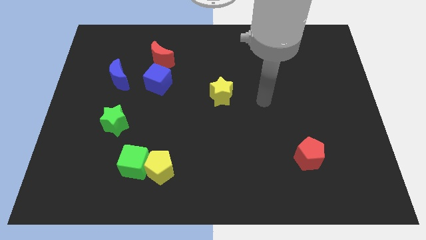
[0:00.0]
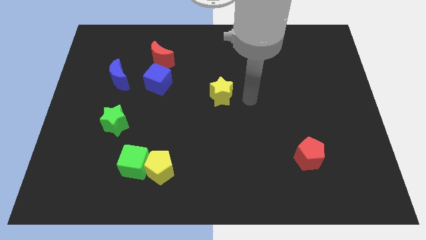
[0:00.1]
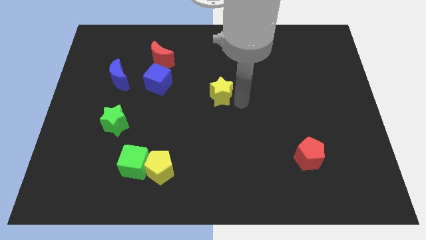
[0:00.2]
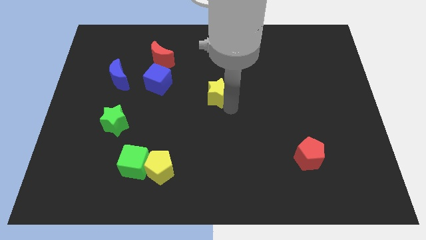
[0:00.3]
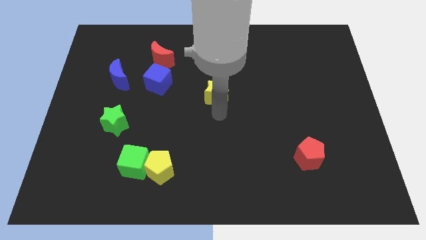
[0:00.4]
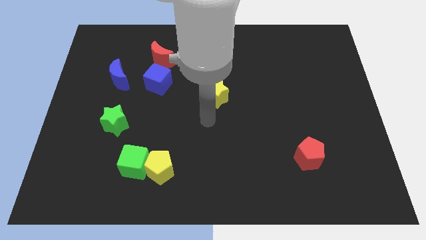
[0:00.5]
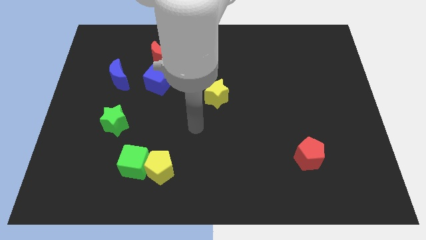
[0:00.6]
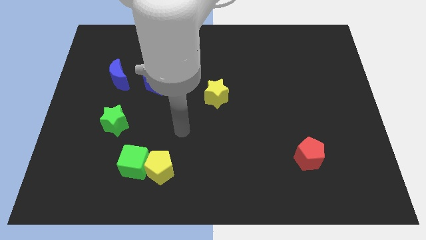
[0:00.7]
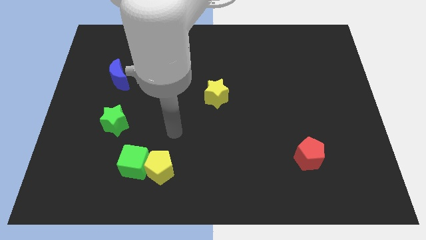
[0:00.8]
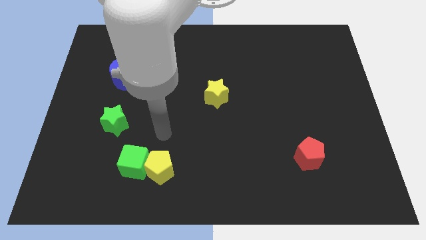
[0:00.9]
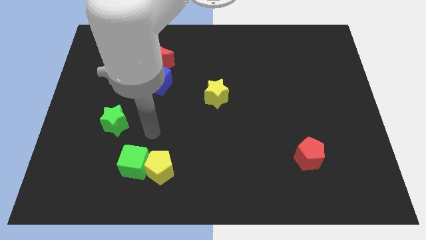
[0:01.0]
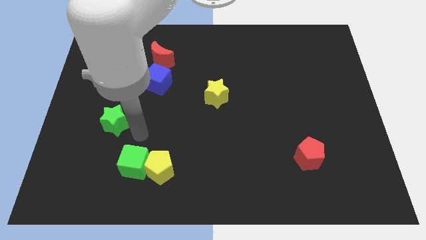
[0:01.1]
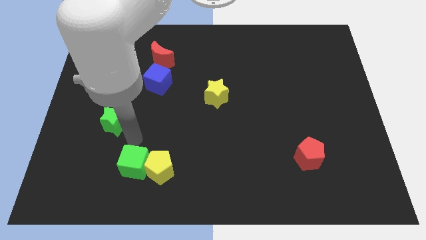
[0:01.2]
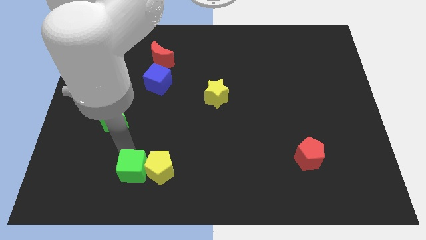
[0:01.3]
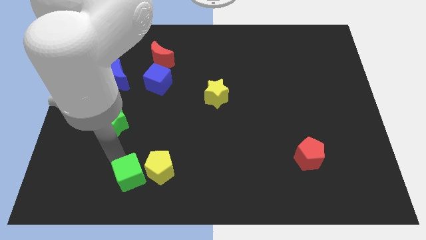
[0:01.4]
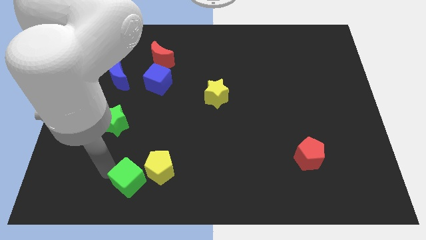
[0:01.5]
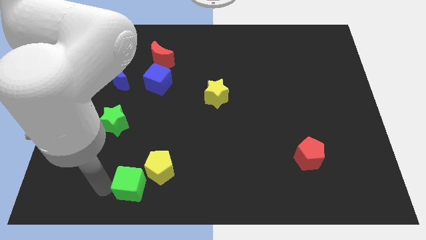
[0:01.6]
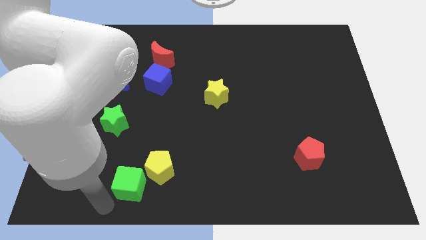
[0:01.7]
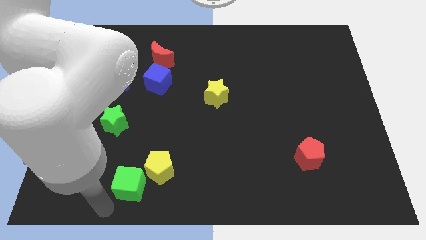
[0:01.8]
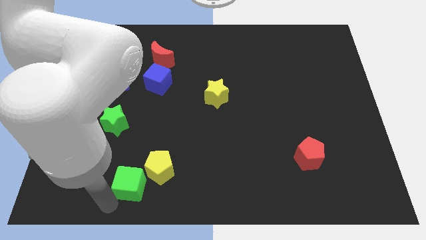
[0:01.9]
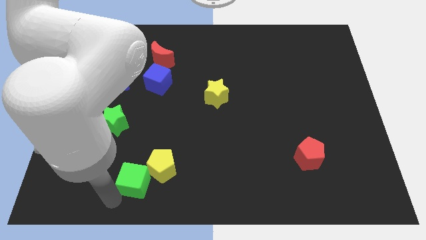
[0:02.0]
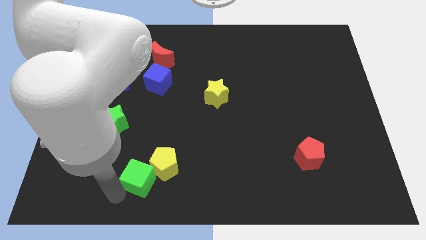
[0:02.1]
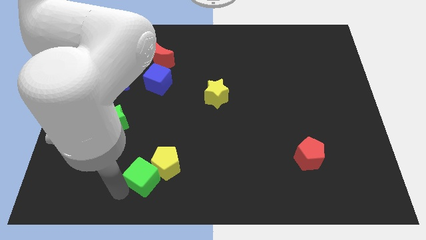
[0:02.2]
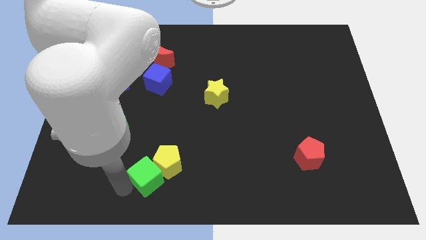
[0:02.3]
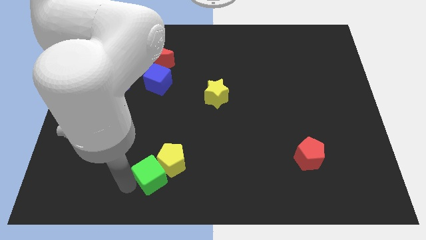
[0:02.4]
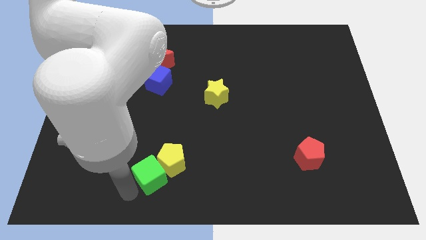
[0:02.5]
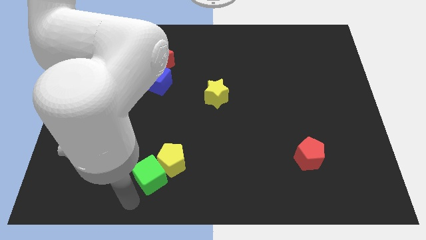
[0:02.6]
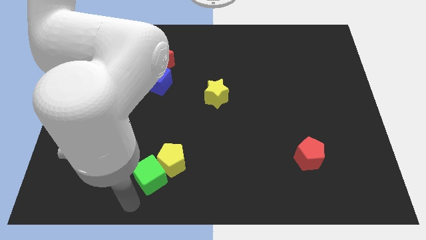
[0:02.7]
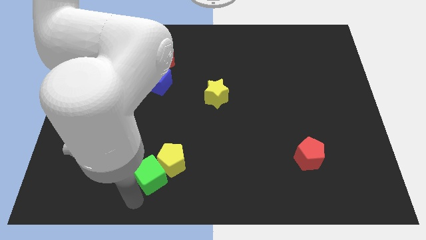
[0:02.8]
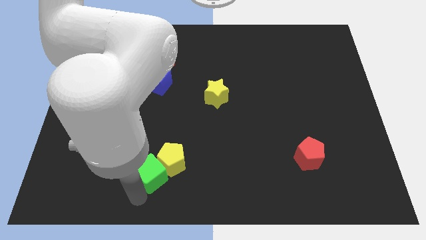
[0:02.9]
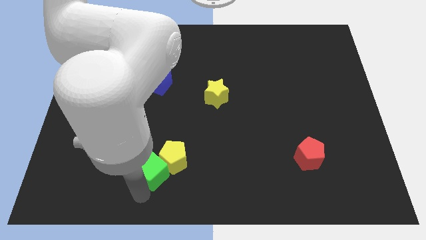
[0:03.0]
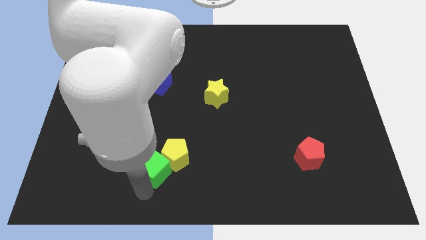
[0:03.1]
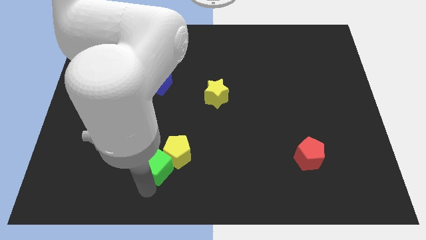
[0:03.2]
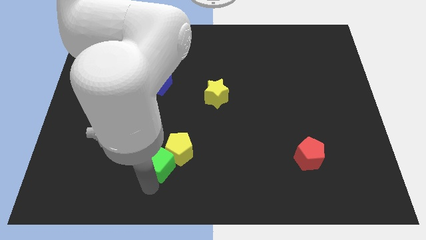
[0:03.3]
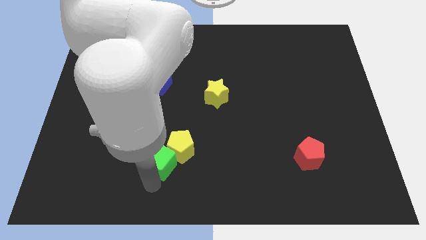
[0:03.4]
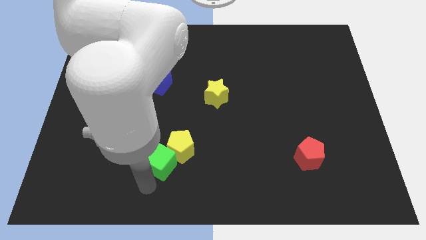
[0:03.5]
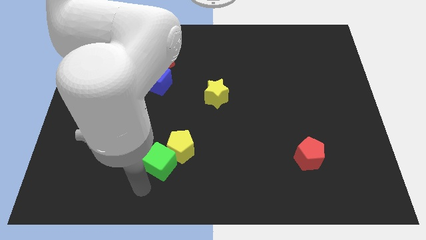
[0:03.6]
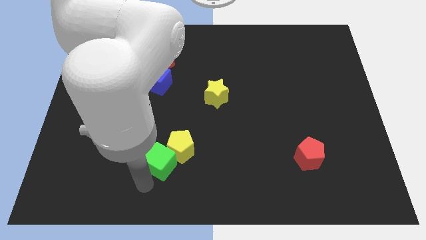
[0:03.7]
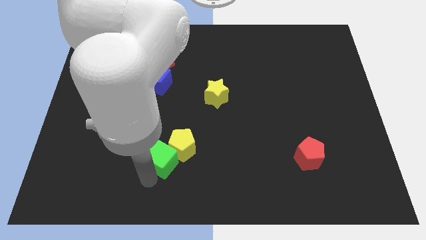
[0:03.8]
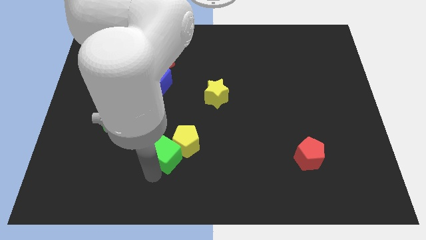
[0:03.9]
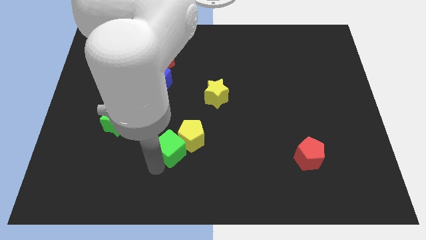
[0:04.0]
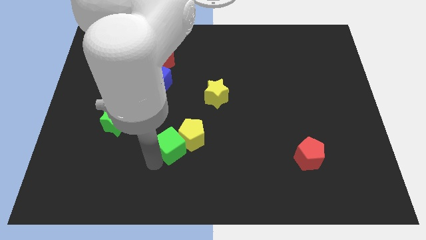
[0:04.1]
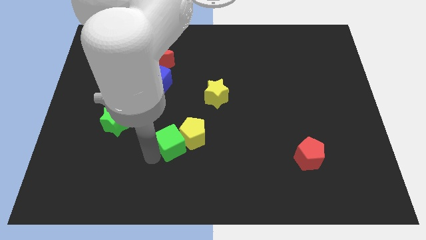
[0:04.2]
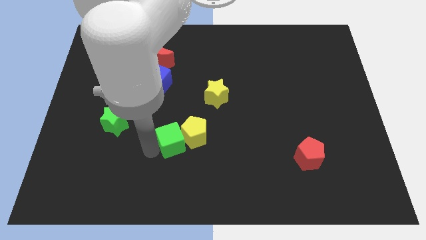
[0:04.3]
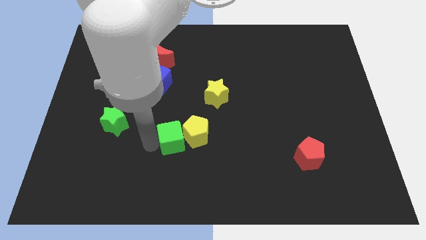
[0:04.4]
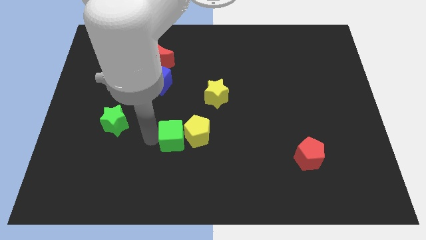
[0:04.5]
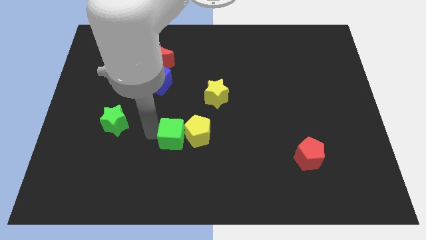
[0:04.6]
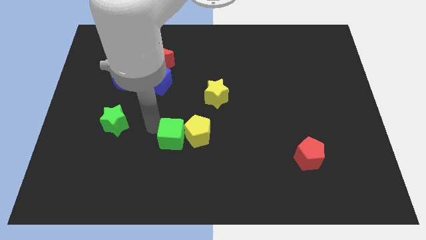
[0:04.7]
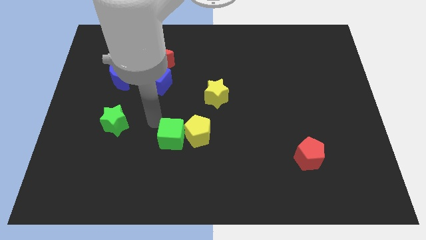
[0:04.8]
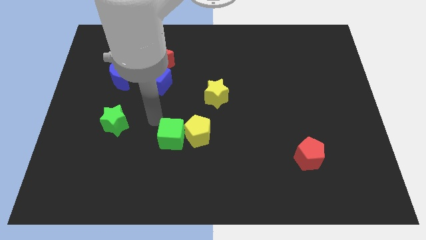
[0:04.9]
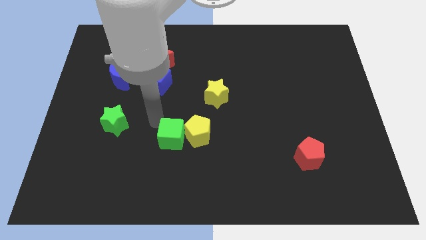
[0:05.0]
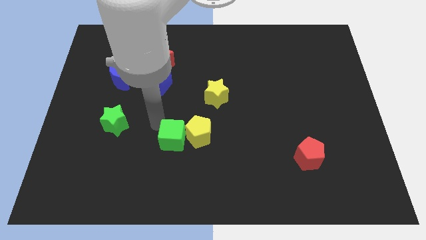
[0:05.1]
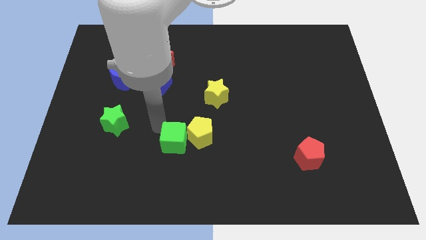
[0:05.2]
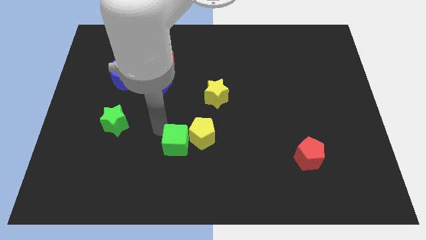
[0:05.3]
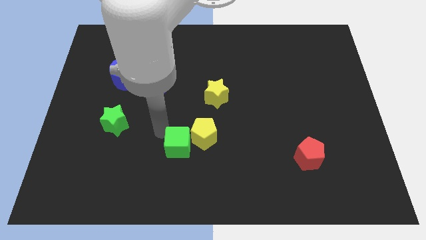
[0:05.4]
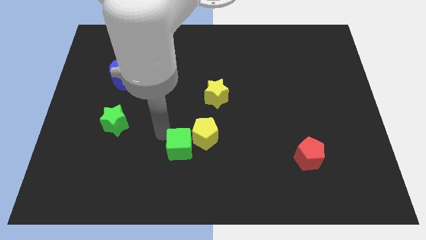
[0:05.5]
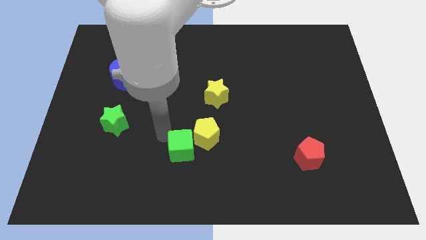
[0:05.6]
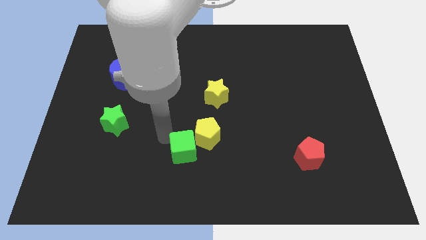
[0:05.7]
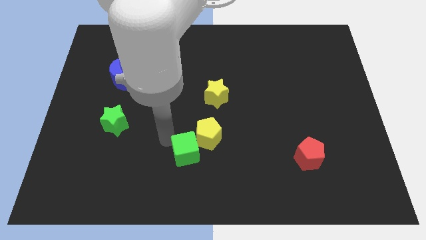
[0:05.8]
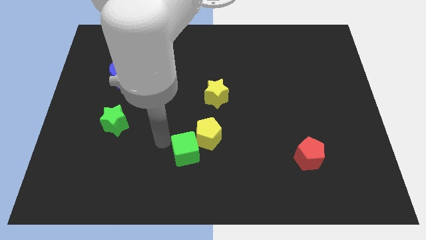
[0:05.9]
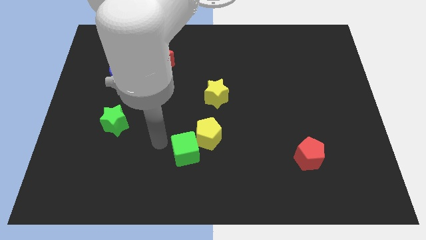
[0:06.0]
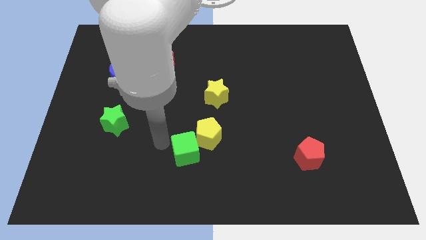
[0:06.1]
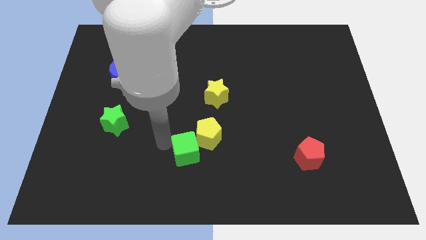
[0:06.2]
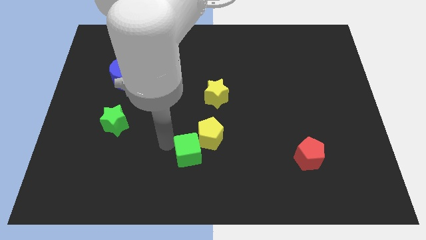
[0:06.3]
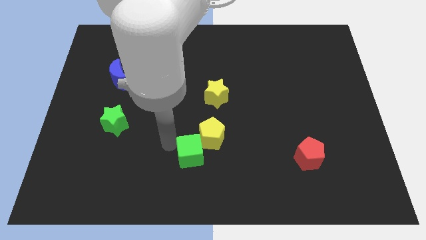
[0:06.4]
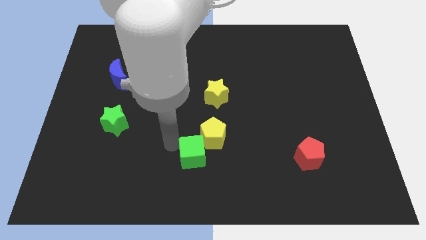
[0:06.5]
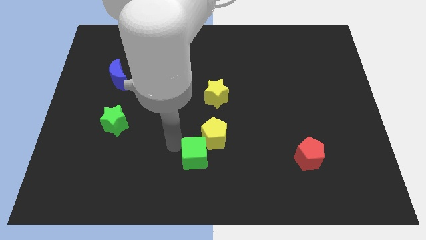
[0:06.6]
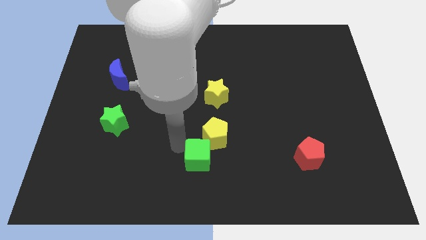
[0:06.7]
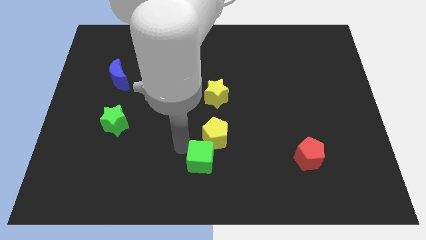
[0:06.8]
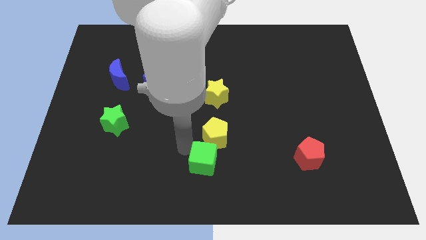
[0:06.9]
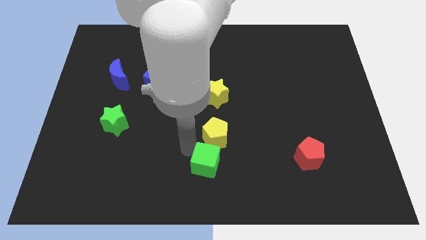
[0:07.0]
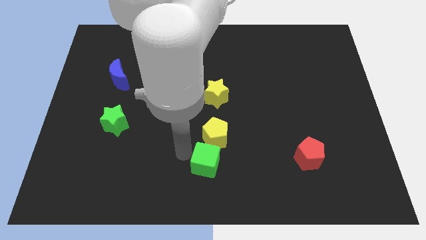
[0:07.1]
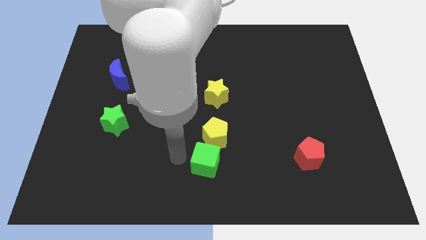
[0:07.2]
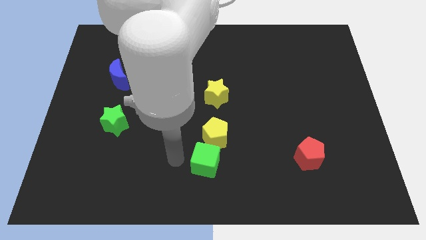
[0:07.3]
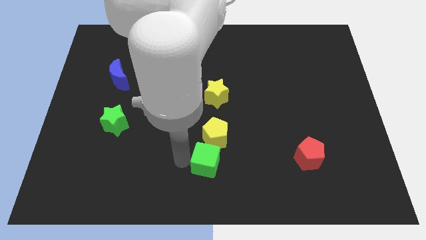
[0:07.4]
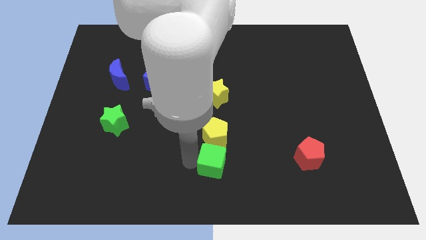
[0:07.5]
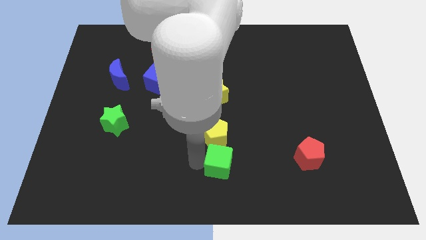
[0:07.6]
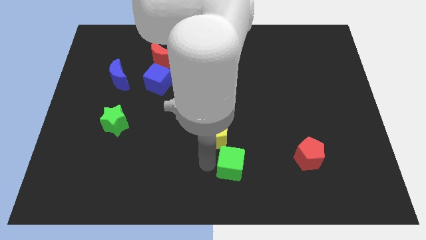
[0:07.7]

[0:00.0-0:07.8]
push the green cube right

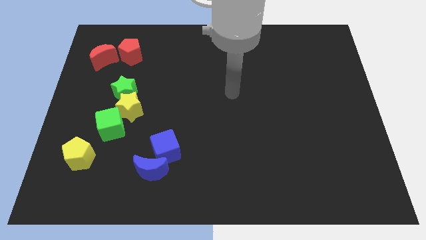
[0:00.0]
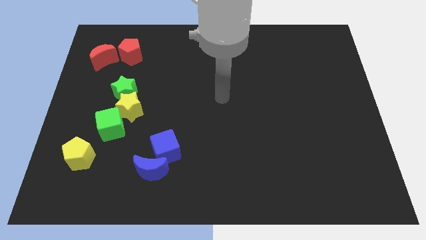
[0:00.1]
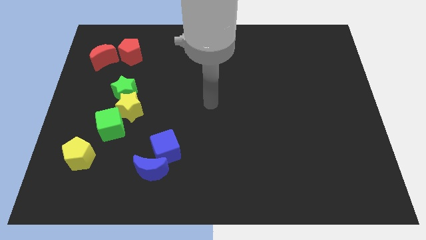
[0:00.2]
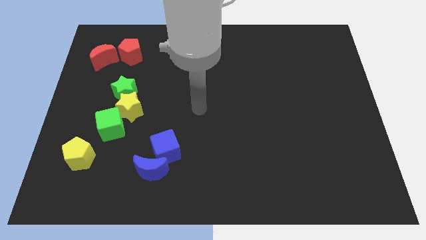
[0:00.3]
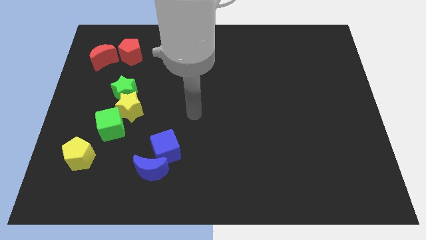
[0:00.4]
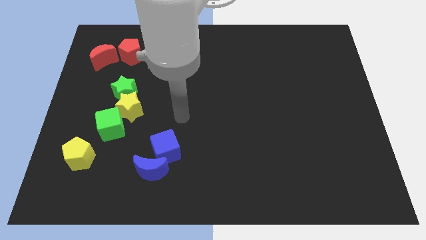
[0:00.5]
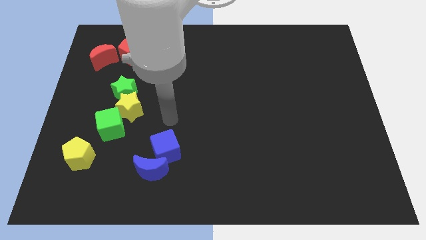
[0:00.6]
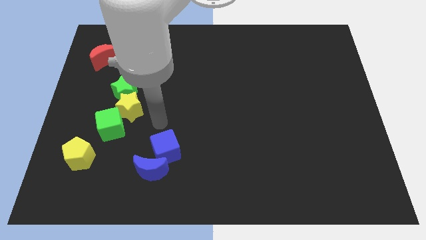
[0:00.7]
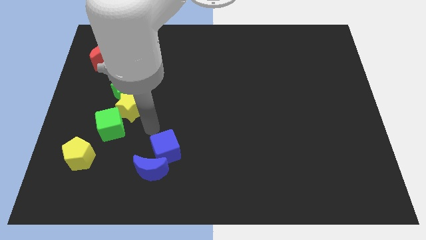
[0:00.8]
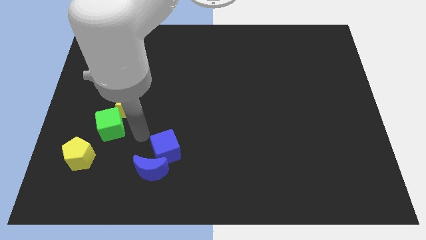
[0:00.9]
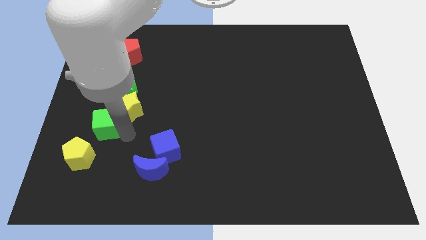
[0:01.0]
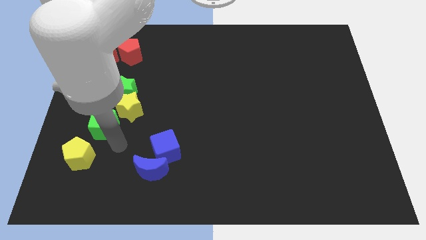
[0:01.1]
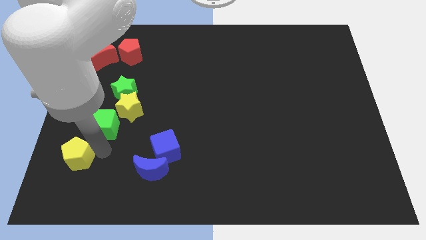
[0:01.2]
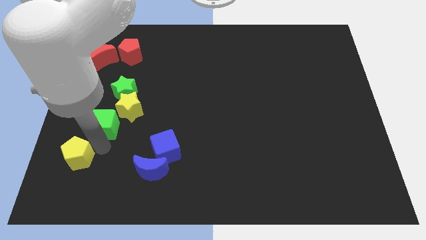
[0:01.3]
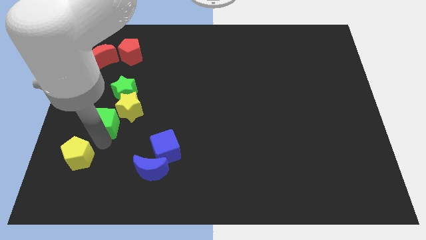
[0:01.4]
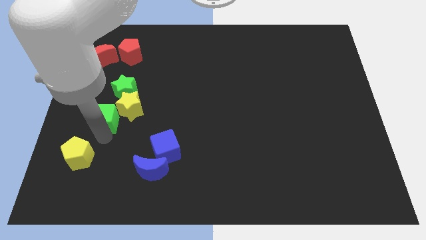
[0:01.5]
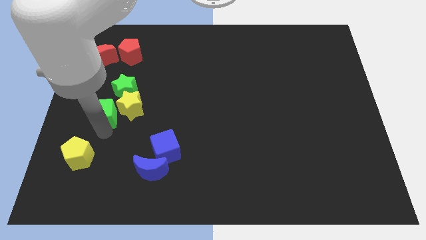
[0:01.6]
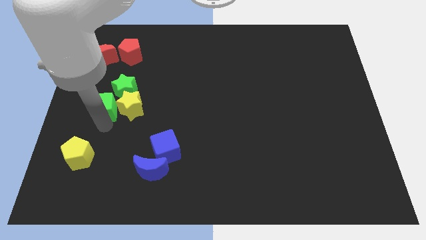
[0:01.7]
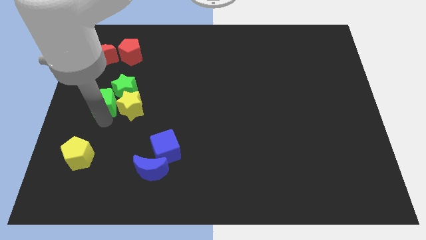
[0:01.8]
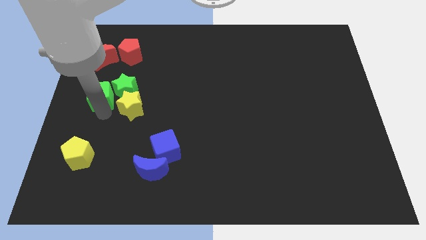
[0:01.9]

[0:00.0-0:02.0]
push the green cube up slightly
